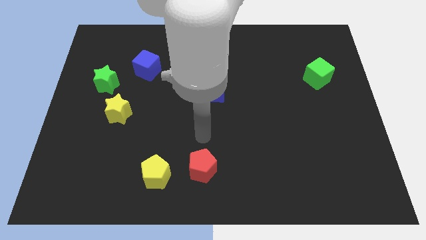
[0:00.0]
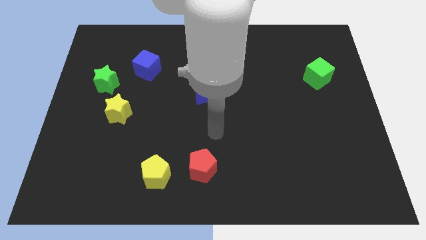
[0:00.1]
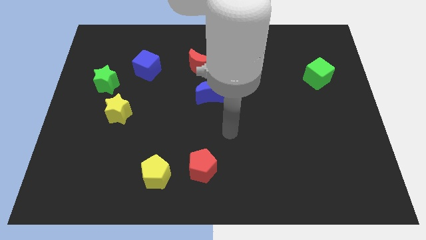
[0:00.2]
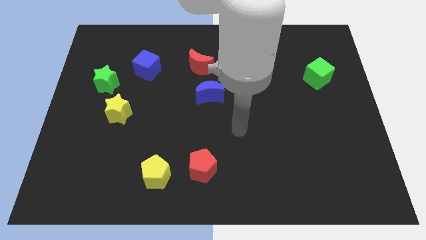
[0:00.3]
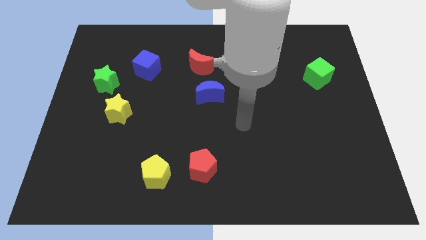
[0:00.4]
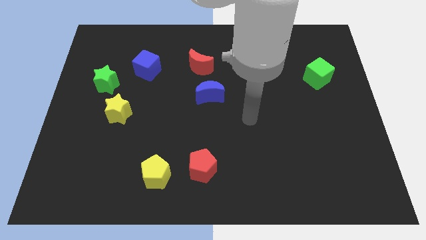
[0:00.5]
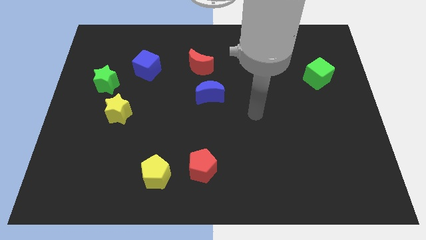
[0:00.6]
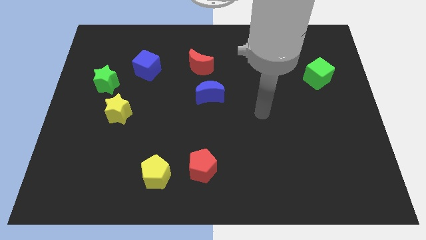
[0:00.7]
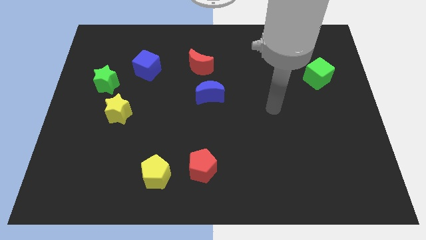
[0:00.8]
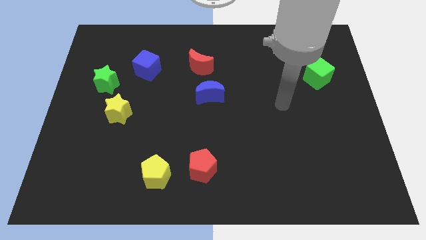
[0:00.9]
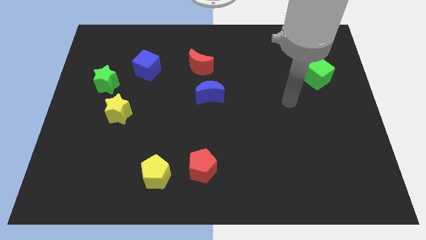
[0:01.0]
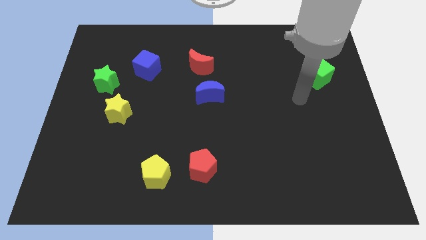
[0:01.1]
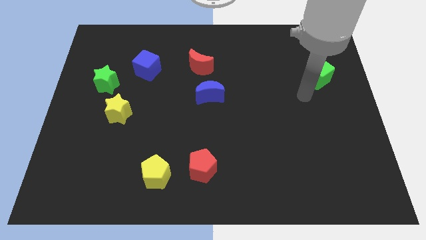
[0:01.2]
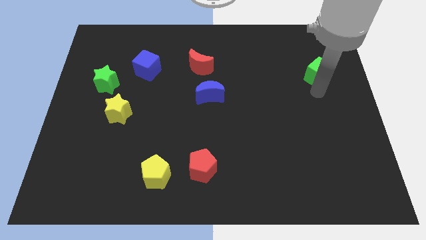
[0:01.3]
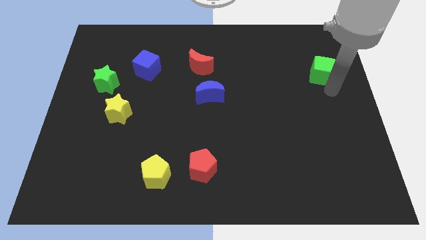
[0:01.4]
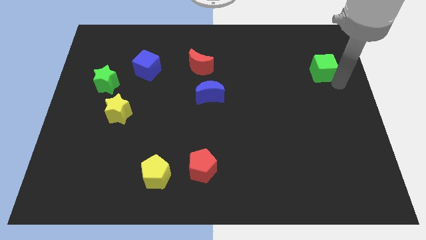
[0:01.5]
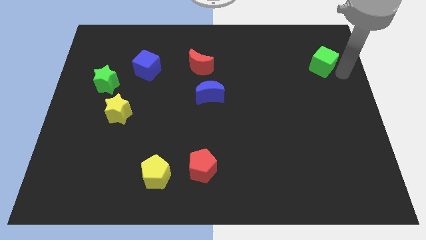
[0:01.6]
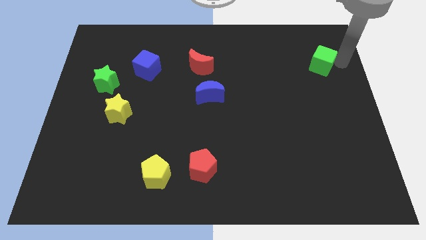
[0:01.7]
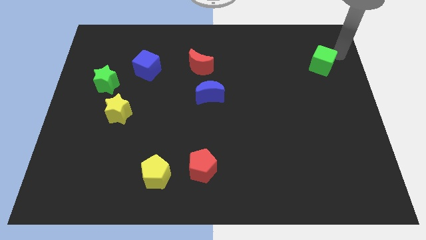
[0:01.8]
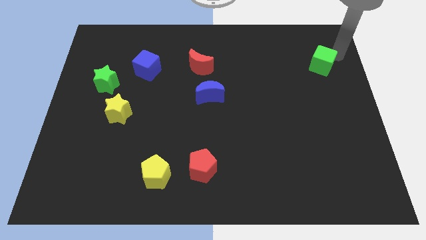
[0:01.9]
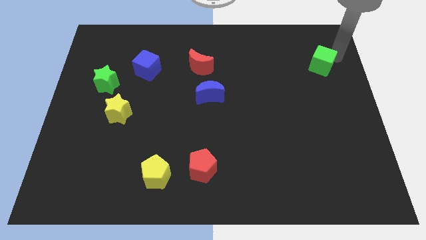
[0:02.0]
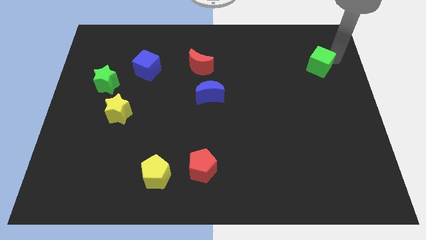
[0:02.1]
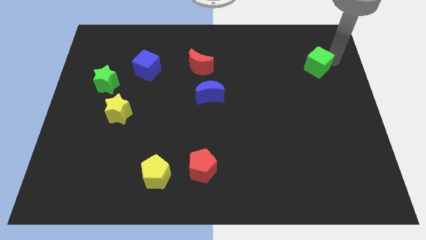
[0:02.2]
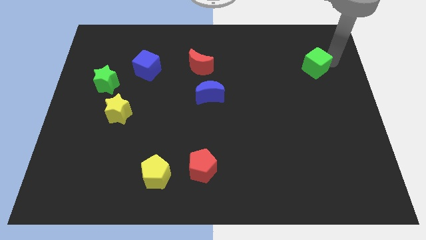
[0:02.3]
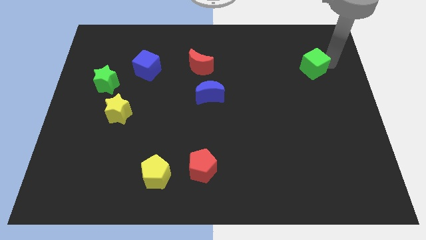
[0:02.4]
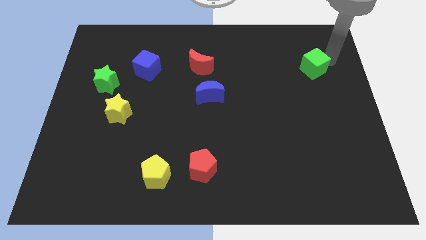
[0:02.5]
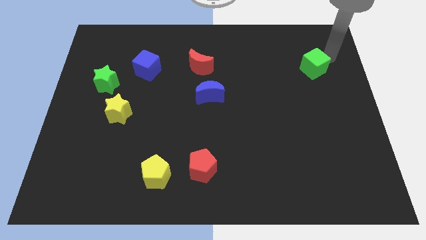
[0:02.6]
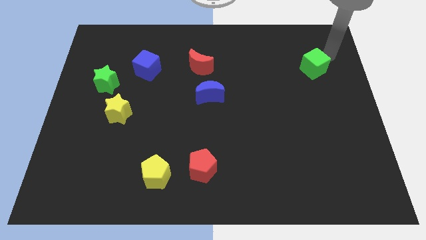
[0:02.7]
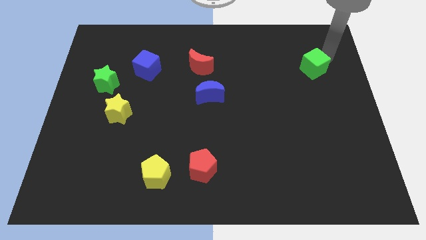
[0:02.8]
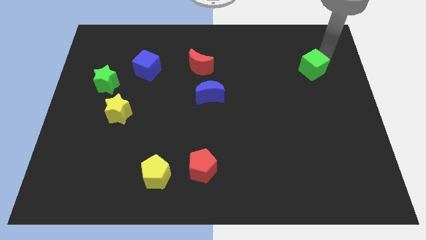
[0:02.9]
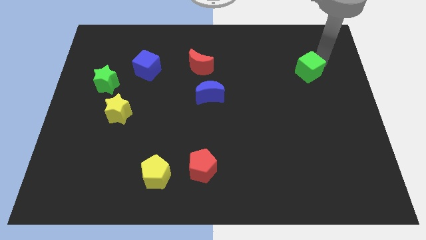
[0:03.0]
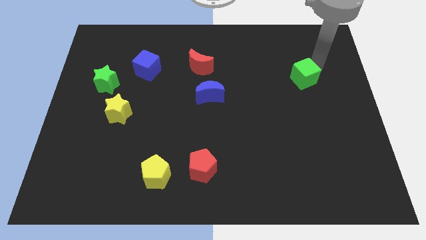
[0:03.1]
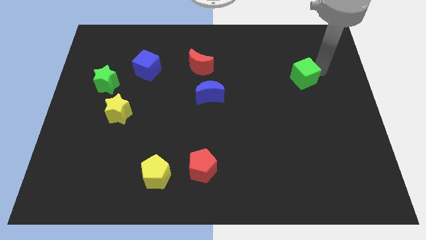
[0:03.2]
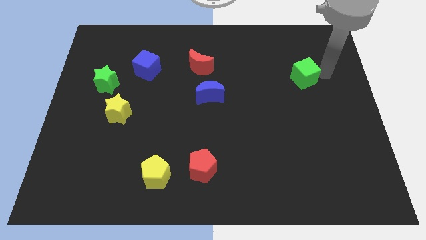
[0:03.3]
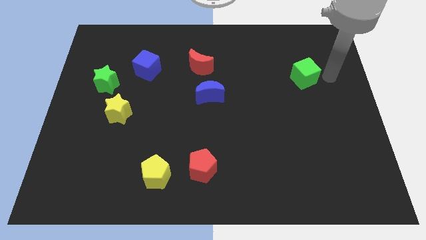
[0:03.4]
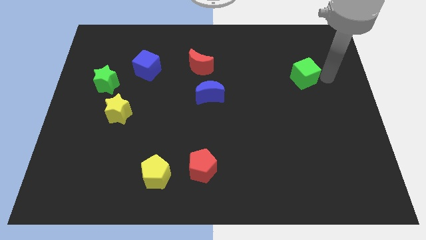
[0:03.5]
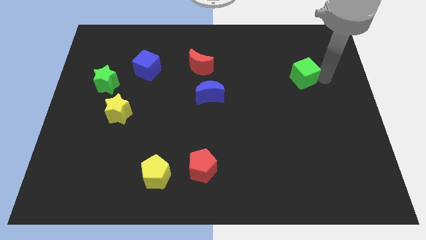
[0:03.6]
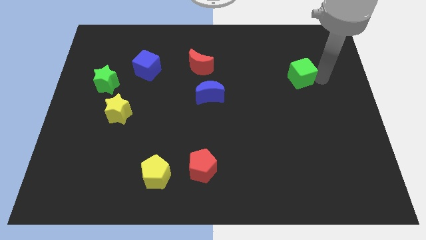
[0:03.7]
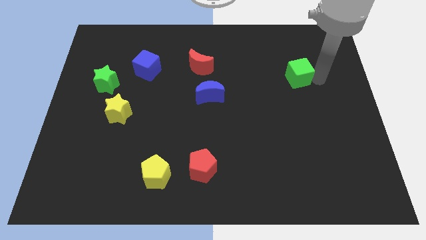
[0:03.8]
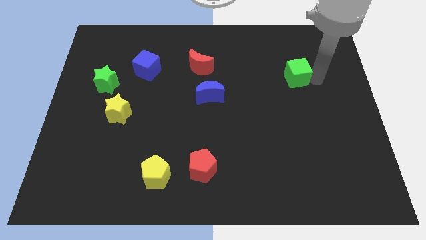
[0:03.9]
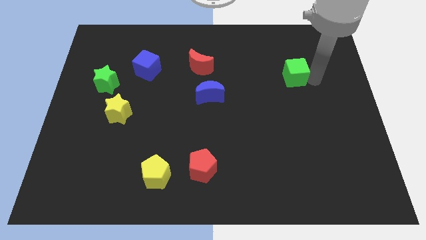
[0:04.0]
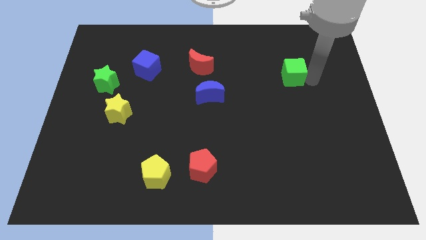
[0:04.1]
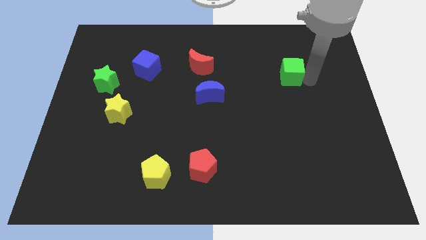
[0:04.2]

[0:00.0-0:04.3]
push the green cube to the left somewhat

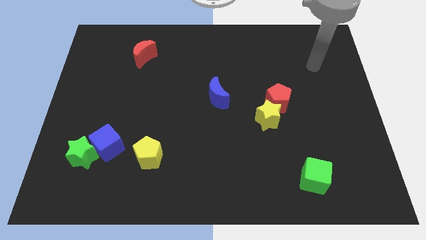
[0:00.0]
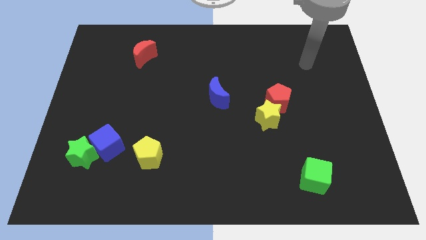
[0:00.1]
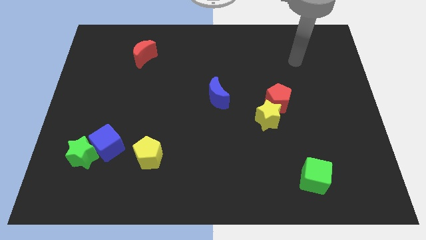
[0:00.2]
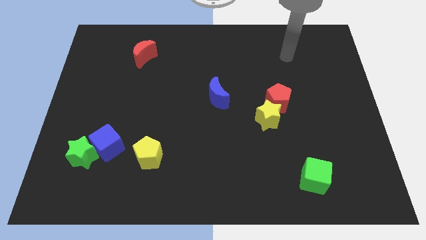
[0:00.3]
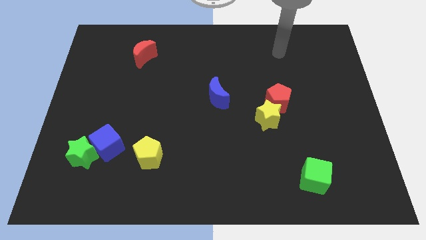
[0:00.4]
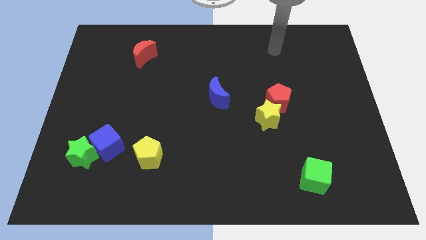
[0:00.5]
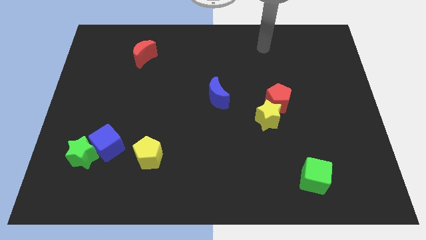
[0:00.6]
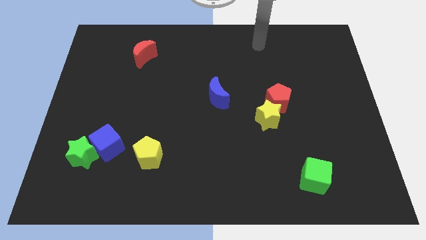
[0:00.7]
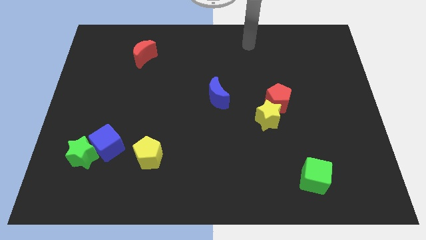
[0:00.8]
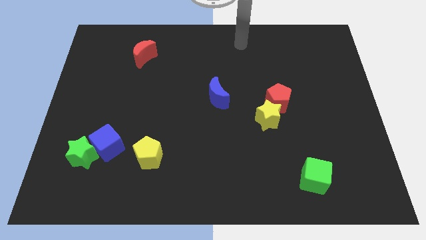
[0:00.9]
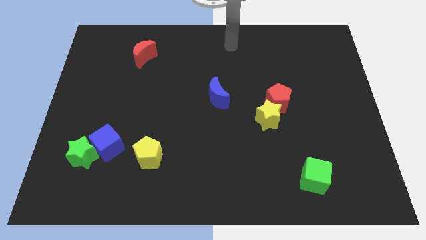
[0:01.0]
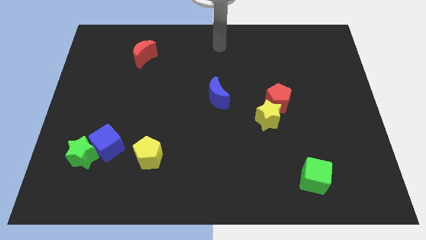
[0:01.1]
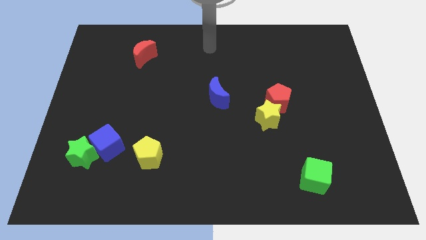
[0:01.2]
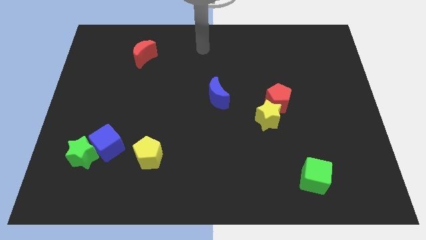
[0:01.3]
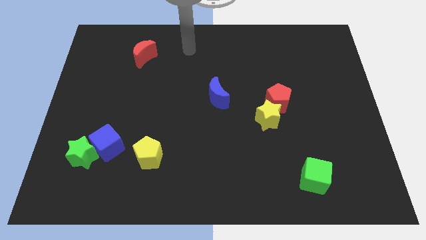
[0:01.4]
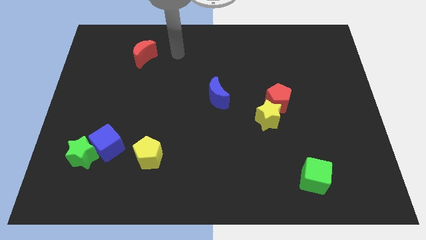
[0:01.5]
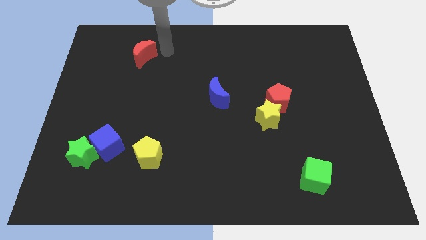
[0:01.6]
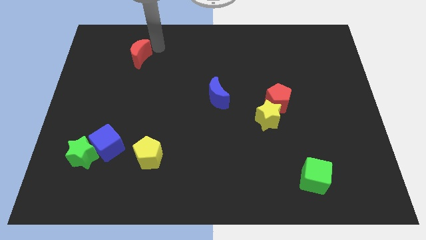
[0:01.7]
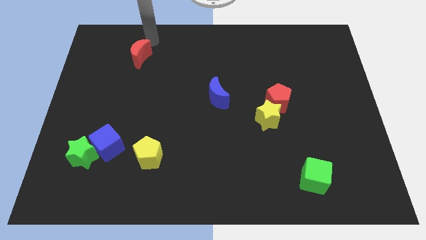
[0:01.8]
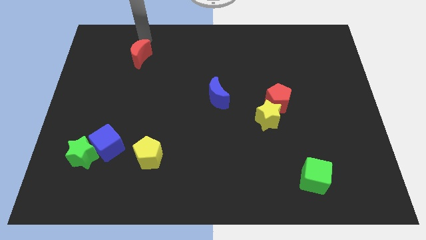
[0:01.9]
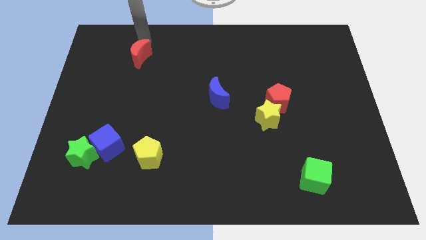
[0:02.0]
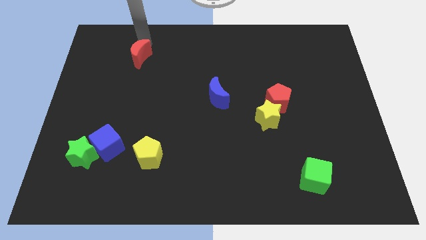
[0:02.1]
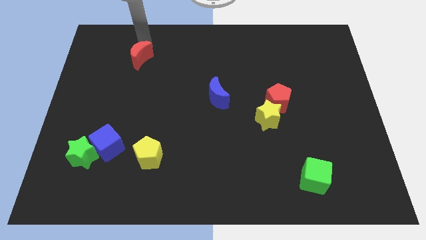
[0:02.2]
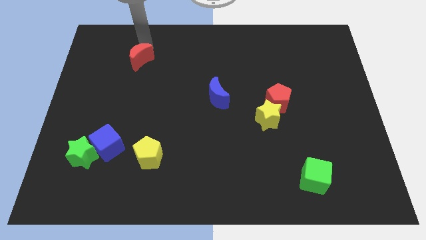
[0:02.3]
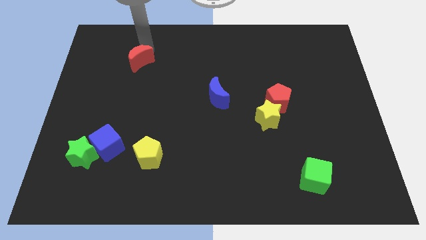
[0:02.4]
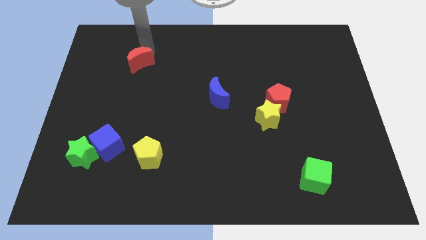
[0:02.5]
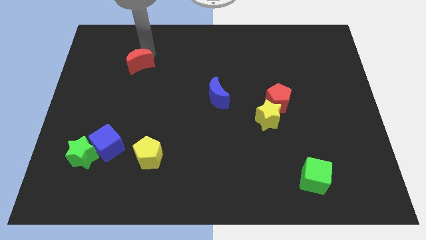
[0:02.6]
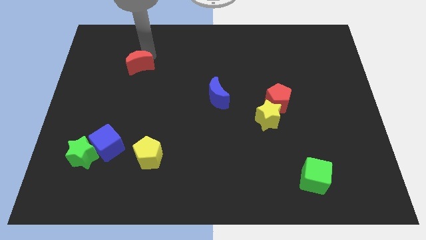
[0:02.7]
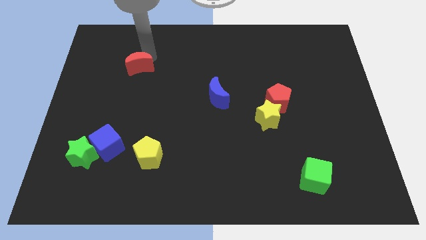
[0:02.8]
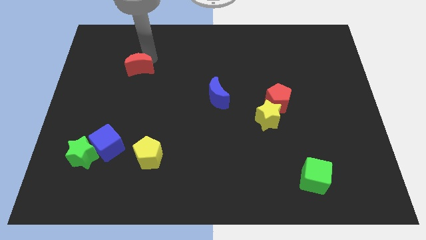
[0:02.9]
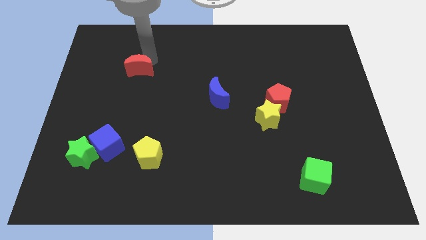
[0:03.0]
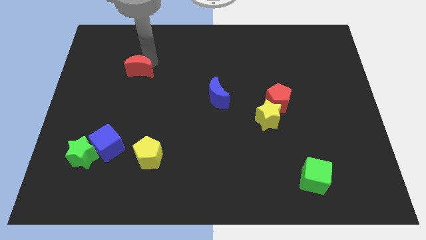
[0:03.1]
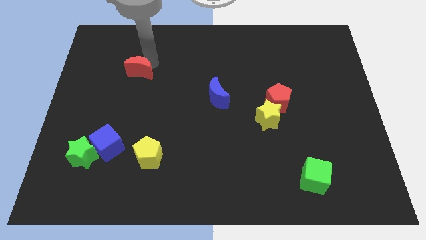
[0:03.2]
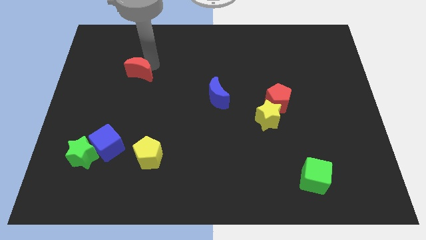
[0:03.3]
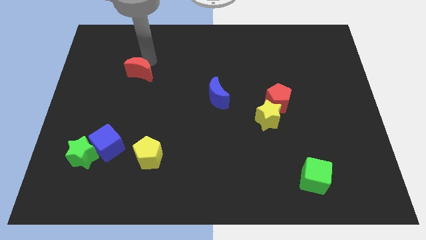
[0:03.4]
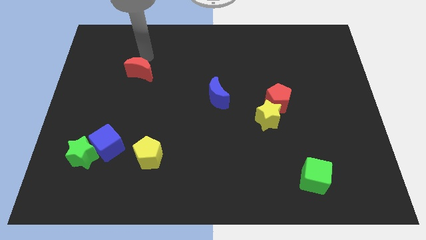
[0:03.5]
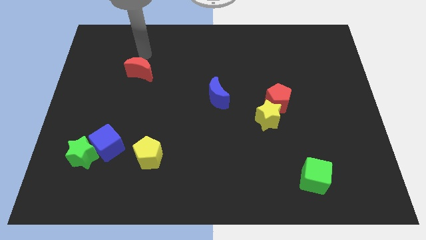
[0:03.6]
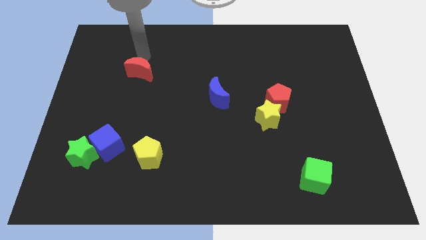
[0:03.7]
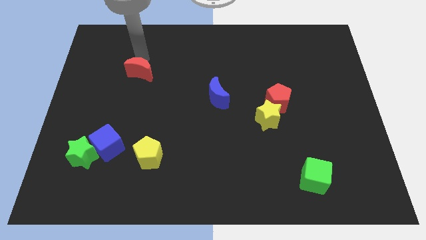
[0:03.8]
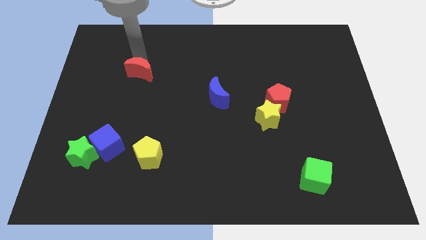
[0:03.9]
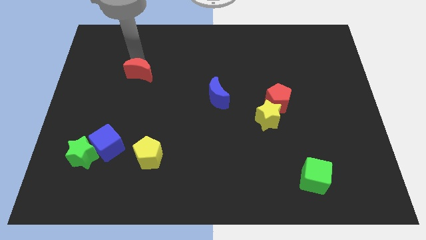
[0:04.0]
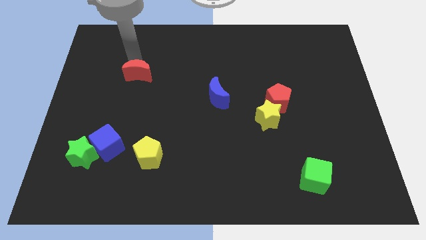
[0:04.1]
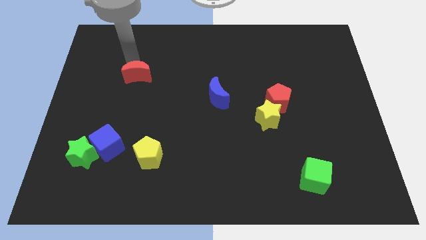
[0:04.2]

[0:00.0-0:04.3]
push the red moon a little bit down
